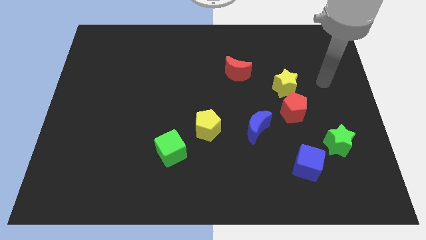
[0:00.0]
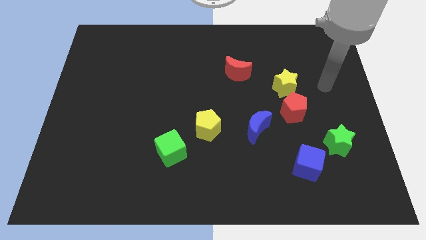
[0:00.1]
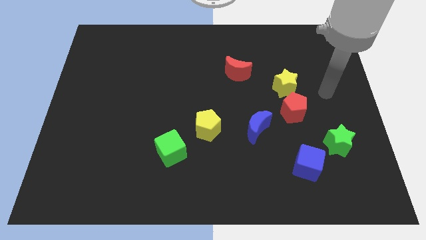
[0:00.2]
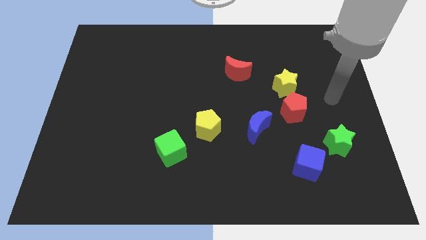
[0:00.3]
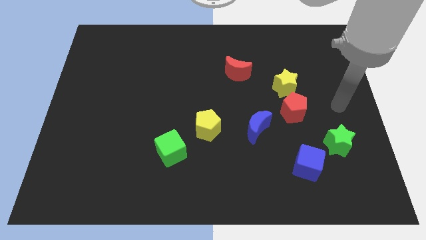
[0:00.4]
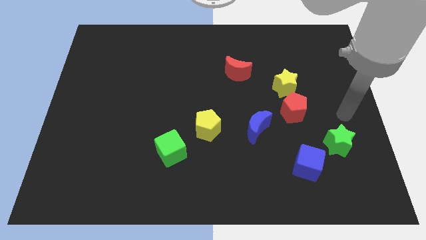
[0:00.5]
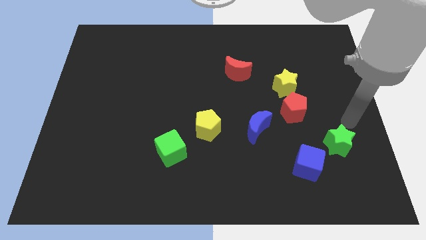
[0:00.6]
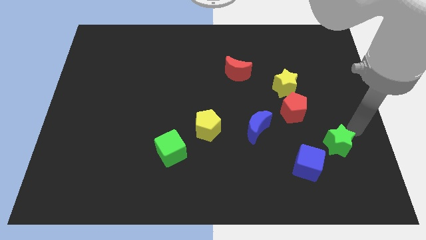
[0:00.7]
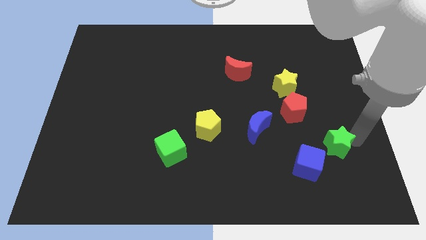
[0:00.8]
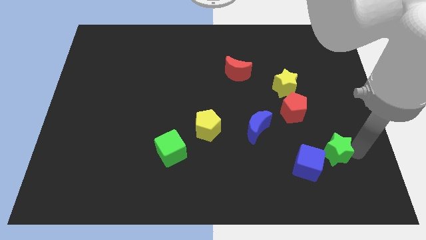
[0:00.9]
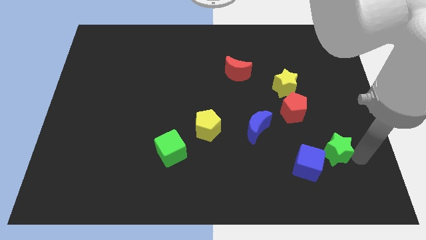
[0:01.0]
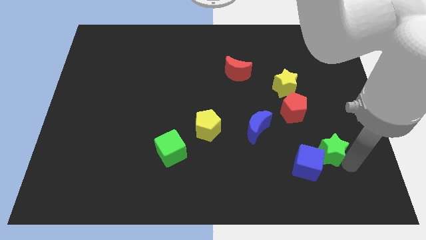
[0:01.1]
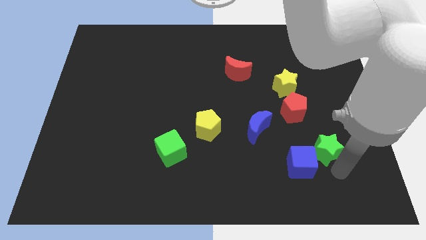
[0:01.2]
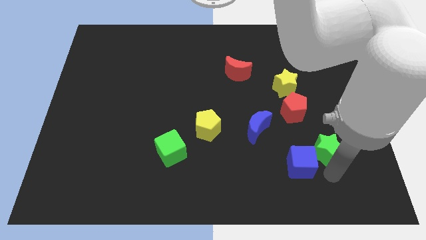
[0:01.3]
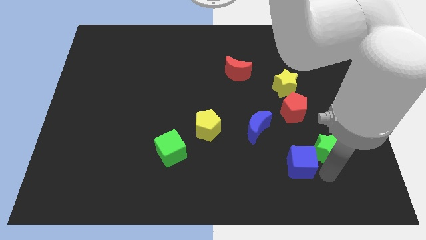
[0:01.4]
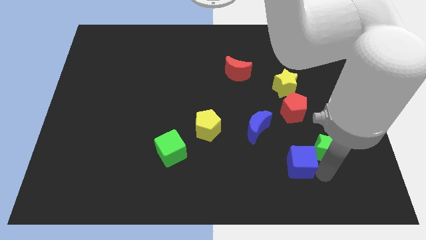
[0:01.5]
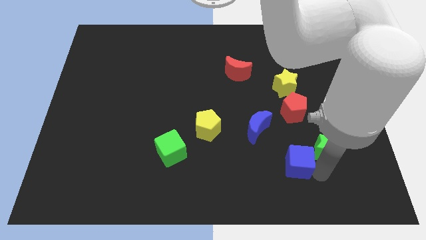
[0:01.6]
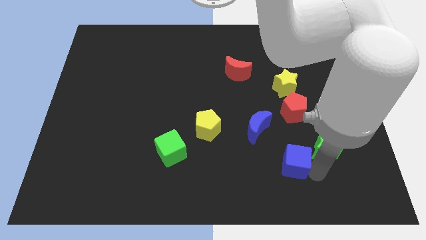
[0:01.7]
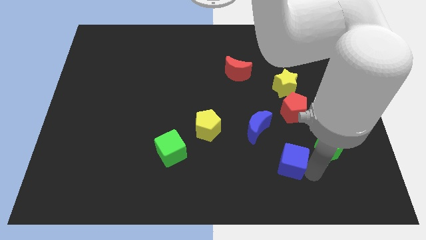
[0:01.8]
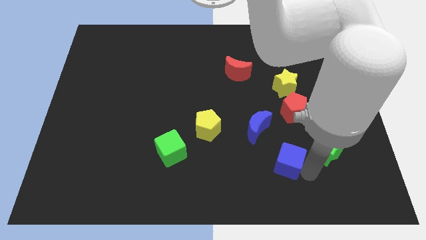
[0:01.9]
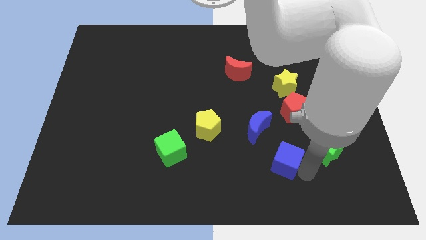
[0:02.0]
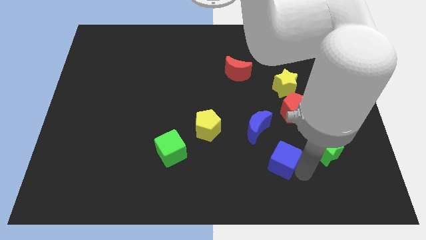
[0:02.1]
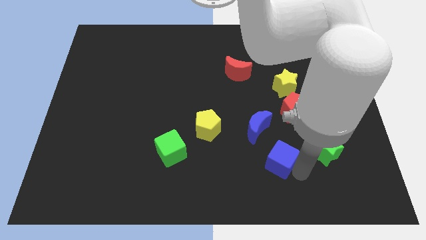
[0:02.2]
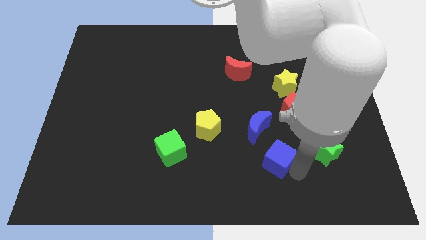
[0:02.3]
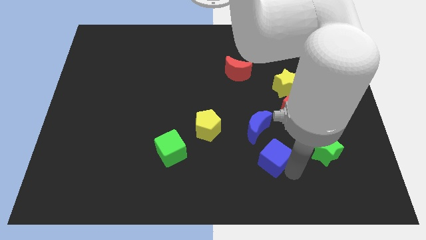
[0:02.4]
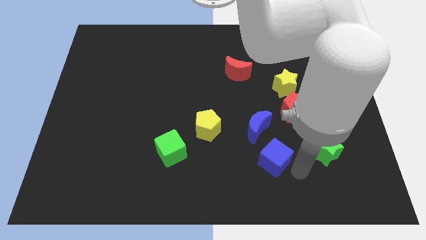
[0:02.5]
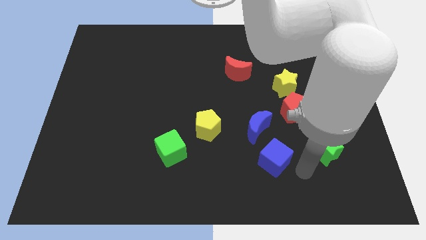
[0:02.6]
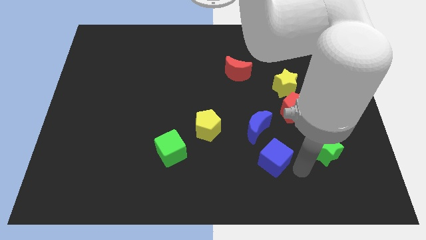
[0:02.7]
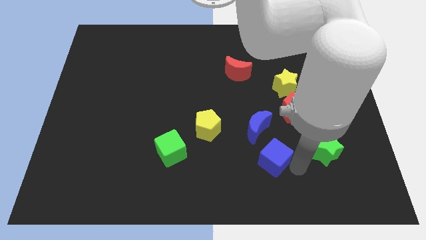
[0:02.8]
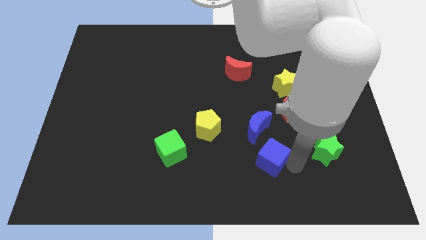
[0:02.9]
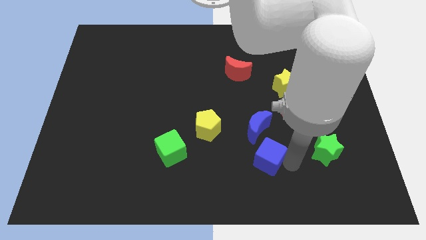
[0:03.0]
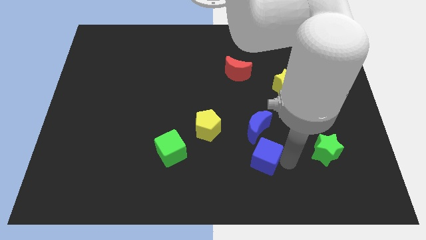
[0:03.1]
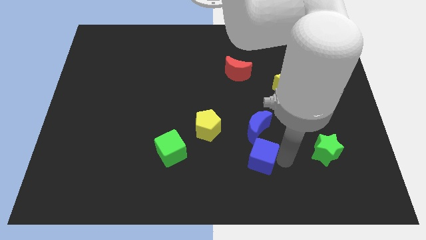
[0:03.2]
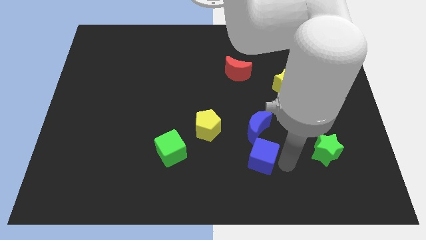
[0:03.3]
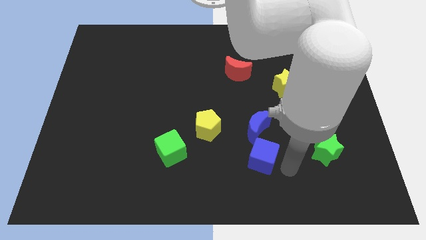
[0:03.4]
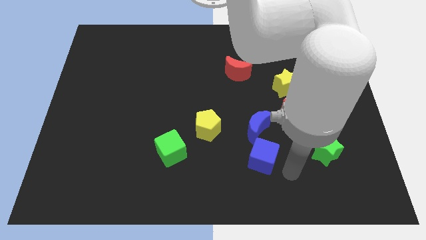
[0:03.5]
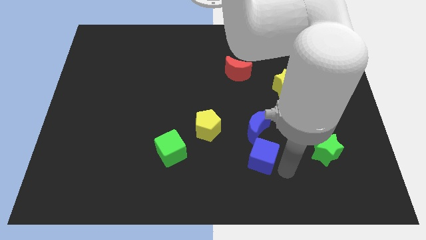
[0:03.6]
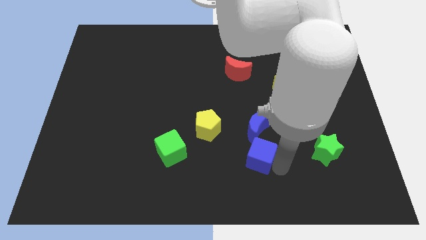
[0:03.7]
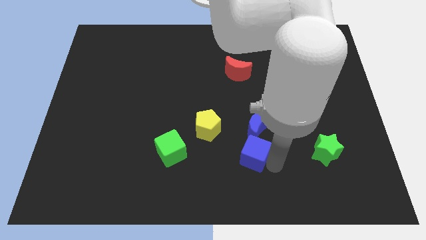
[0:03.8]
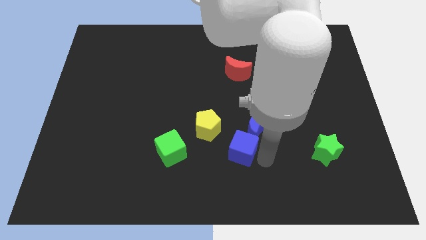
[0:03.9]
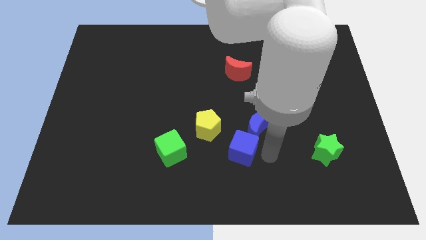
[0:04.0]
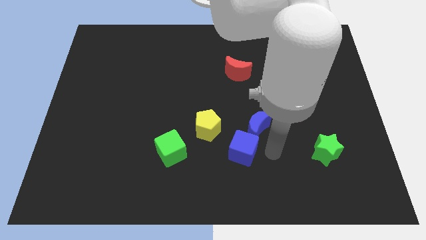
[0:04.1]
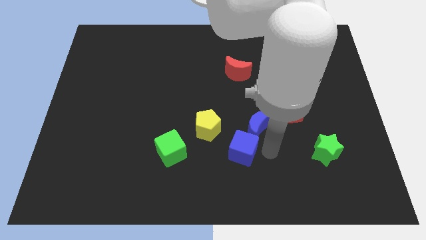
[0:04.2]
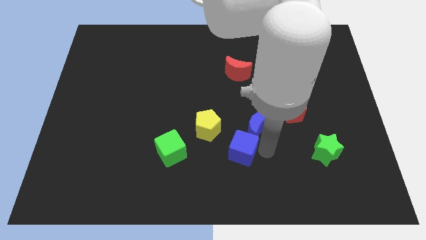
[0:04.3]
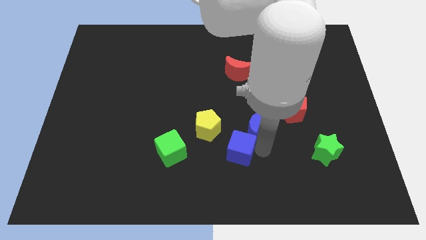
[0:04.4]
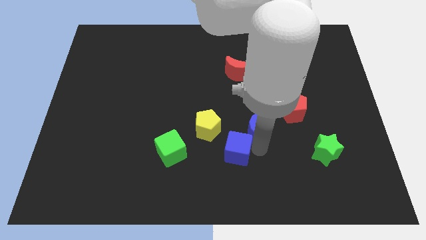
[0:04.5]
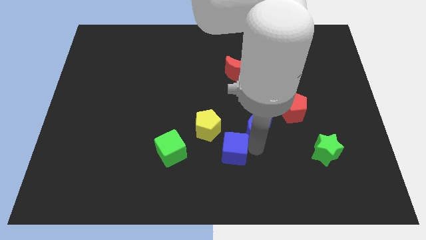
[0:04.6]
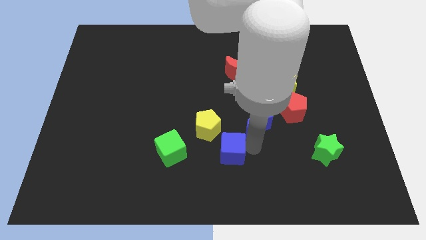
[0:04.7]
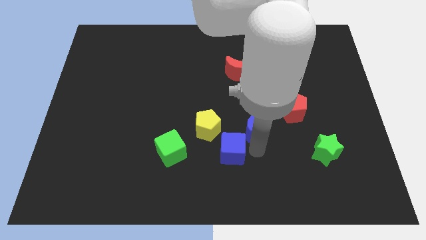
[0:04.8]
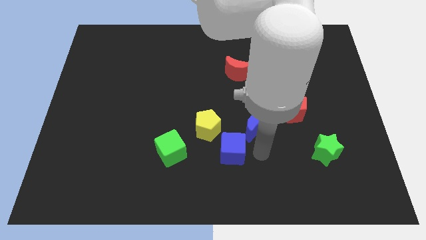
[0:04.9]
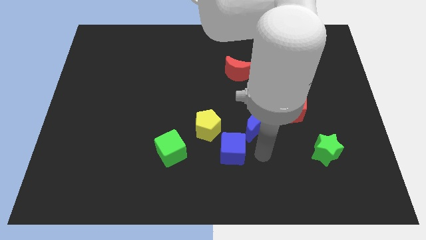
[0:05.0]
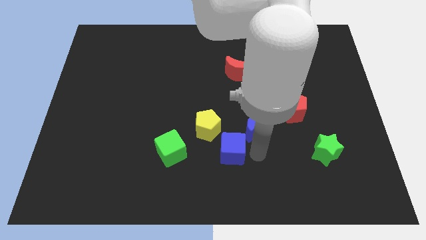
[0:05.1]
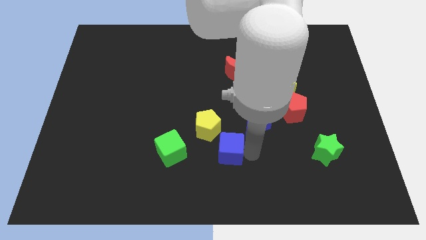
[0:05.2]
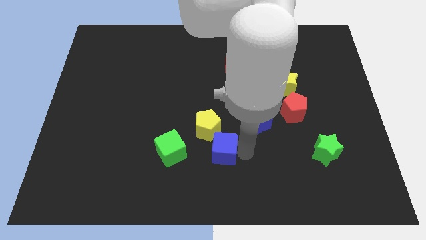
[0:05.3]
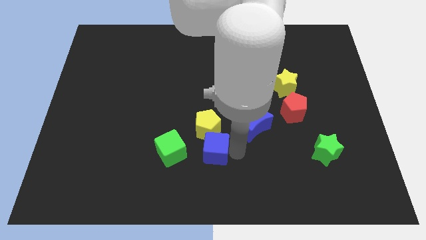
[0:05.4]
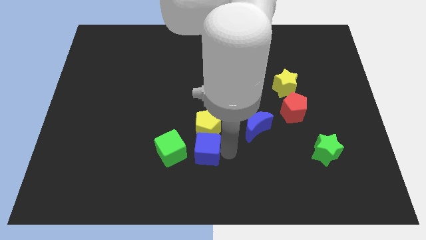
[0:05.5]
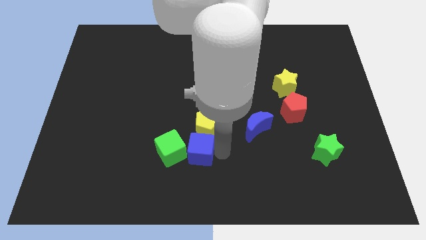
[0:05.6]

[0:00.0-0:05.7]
move the blue cube close to the green cube

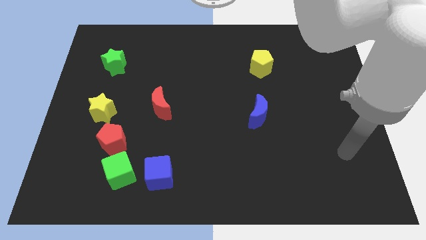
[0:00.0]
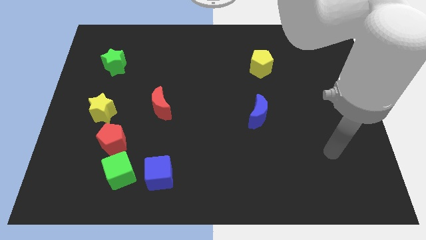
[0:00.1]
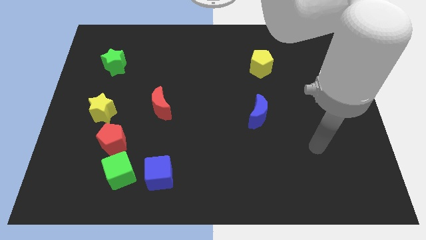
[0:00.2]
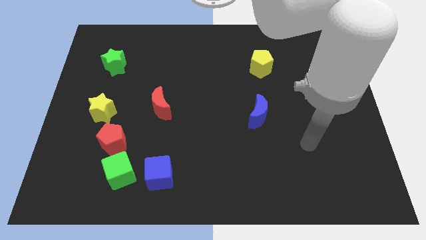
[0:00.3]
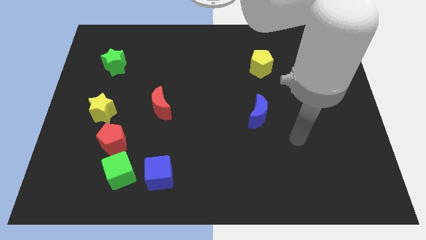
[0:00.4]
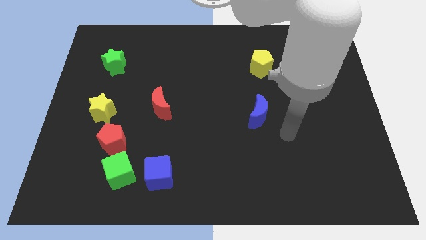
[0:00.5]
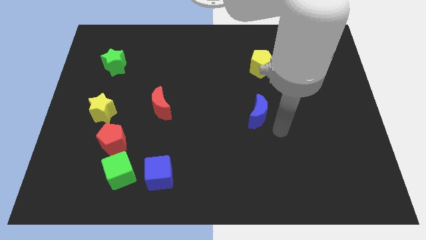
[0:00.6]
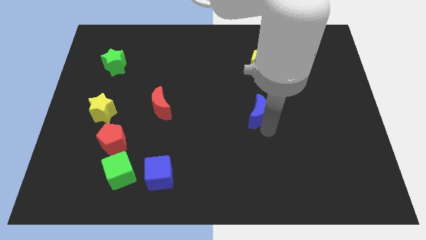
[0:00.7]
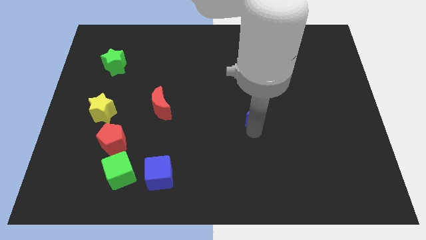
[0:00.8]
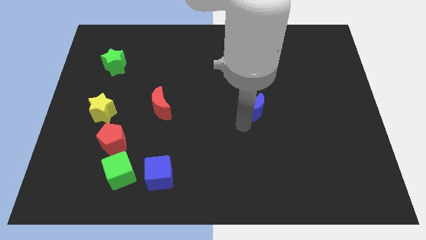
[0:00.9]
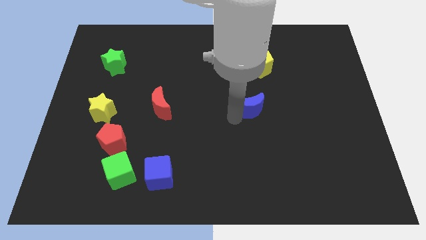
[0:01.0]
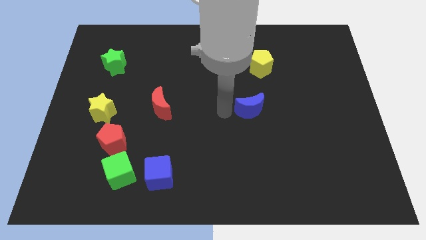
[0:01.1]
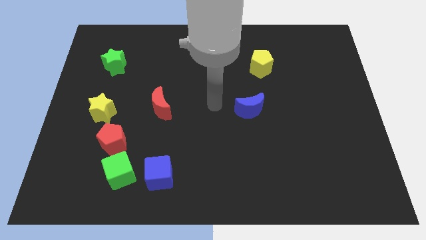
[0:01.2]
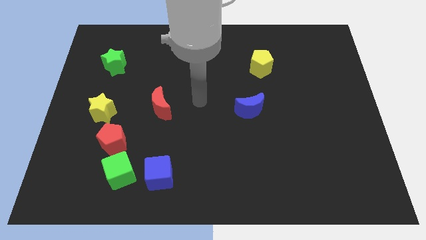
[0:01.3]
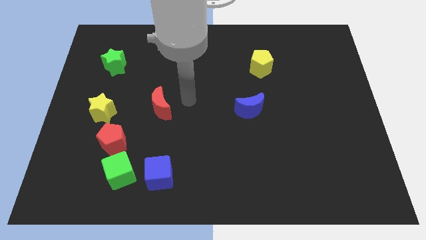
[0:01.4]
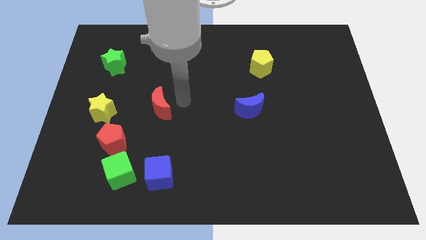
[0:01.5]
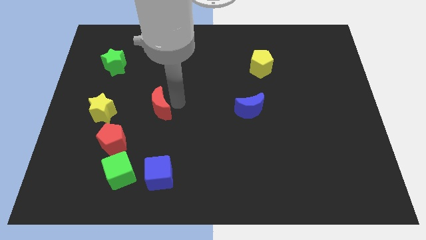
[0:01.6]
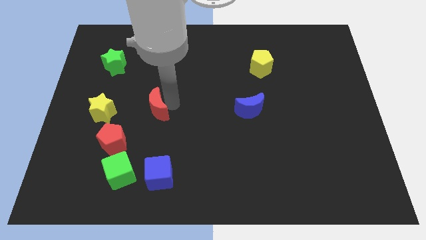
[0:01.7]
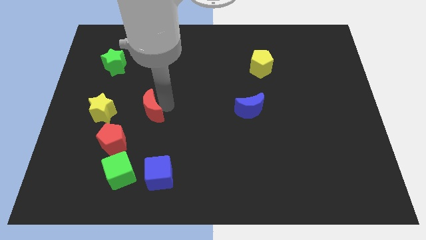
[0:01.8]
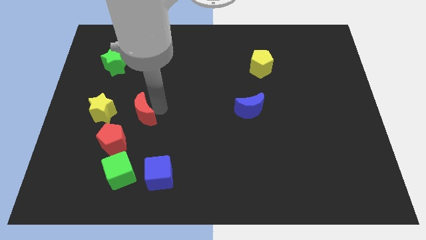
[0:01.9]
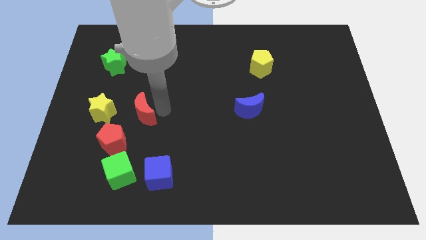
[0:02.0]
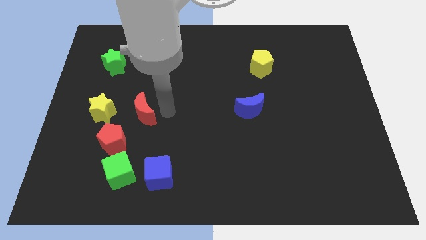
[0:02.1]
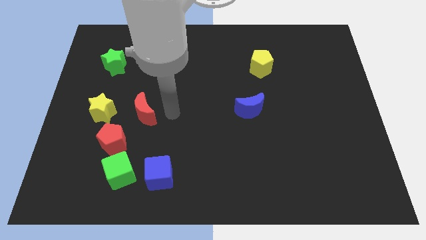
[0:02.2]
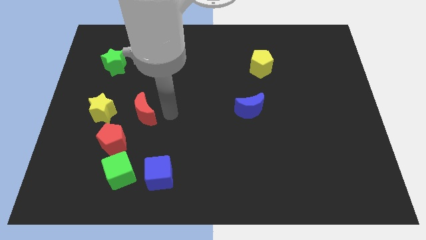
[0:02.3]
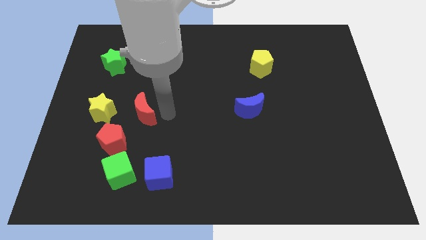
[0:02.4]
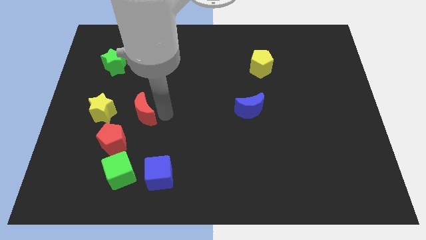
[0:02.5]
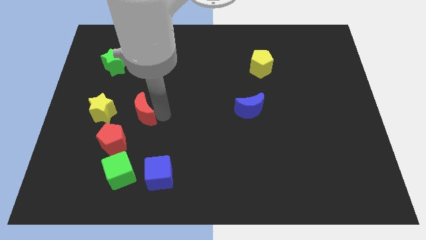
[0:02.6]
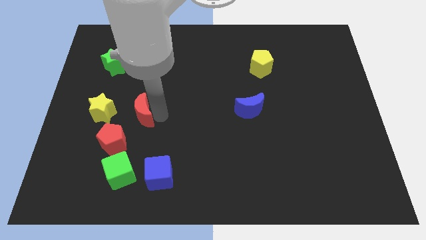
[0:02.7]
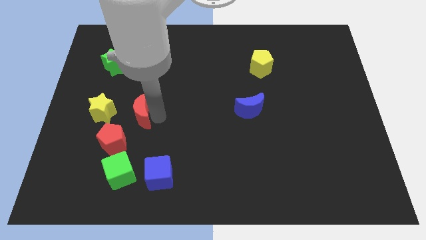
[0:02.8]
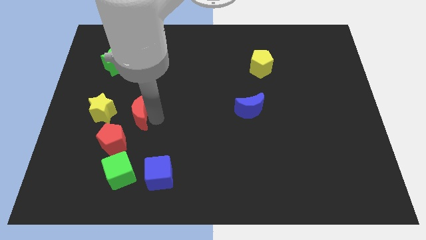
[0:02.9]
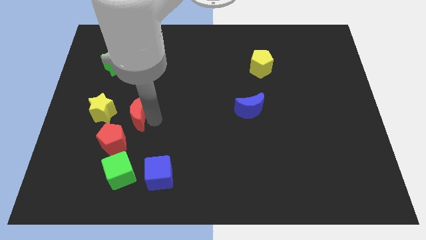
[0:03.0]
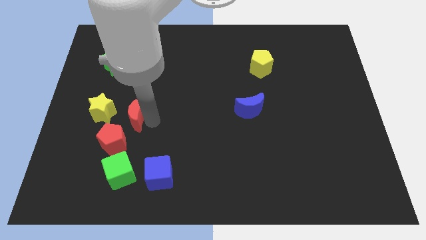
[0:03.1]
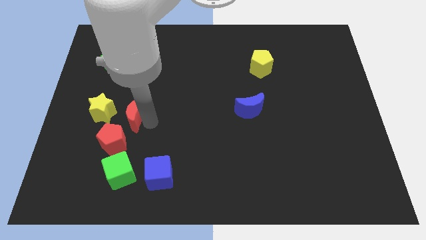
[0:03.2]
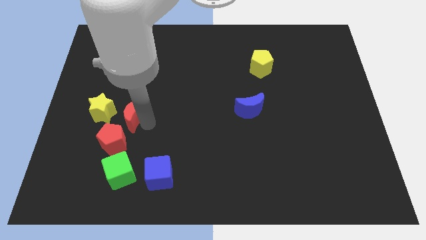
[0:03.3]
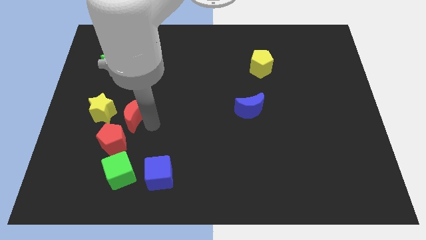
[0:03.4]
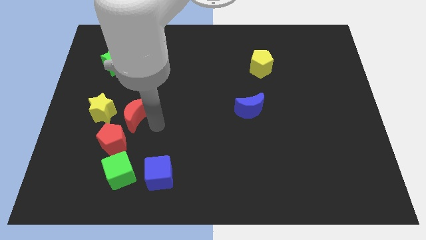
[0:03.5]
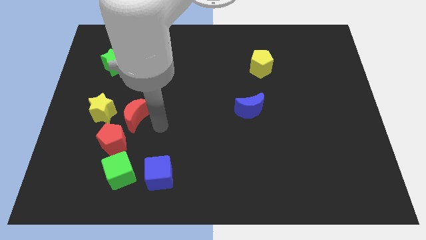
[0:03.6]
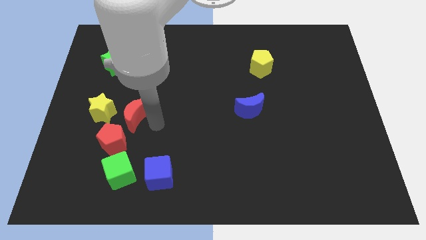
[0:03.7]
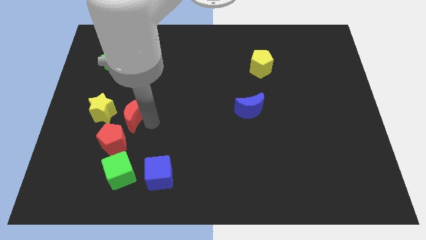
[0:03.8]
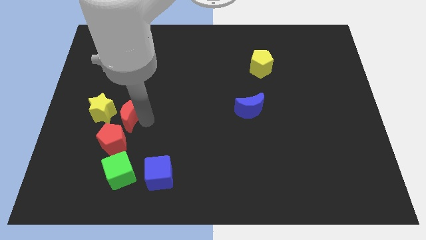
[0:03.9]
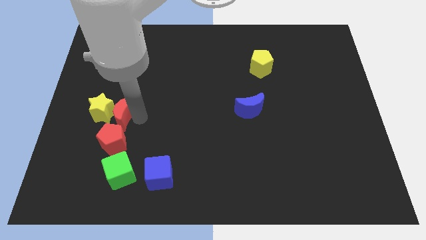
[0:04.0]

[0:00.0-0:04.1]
push the red moon towards the yellow star
